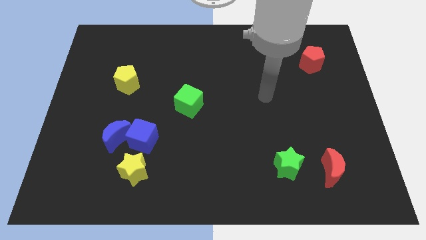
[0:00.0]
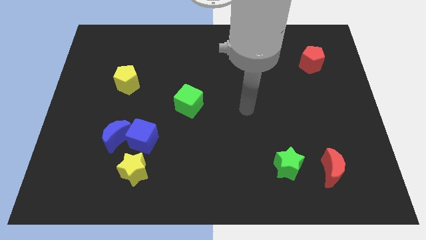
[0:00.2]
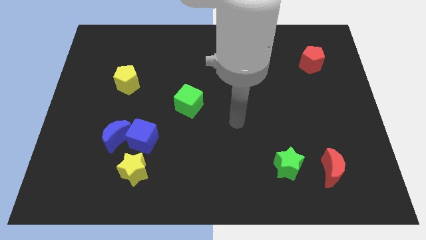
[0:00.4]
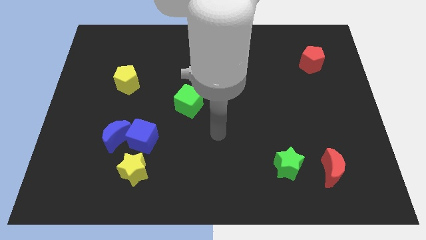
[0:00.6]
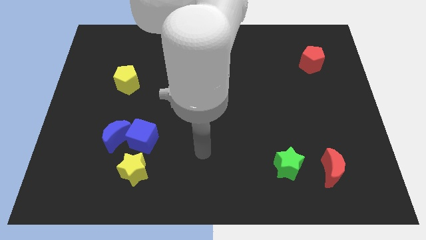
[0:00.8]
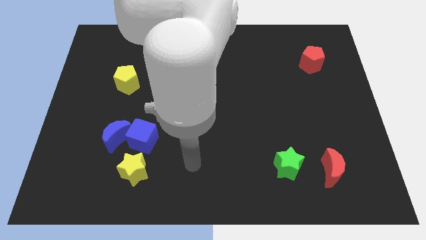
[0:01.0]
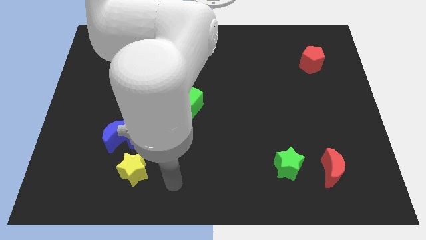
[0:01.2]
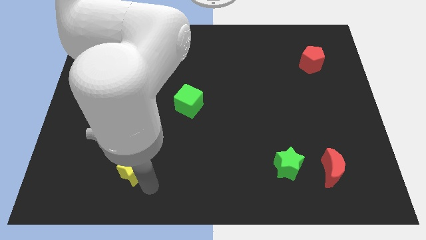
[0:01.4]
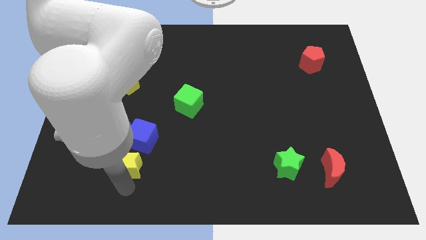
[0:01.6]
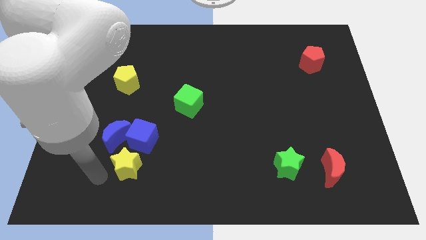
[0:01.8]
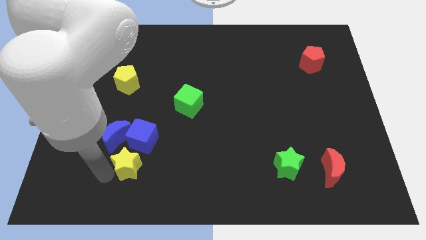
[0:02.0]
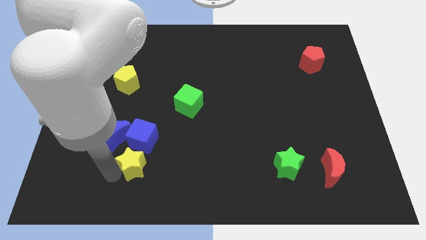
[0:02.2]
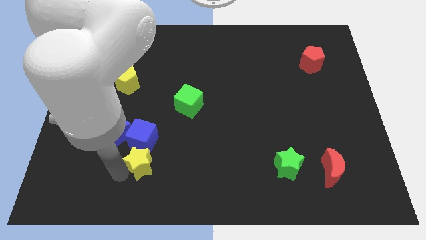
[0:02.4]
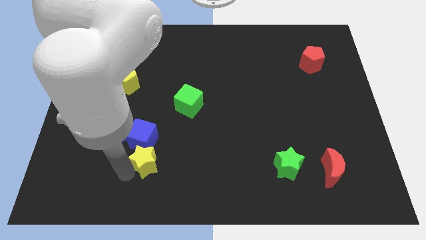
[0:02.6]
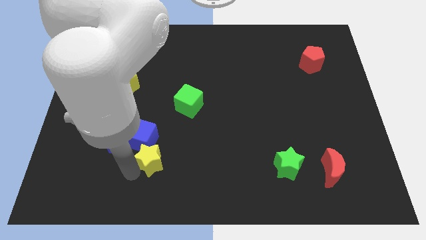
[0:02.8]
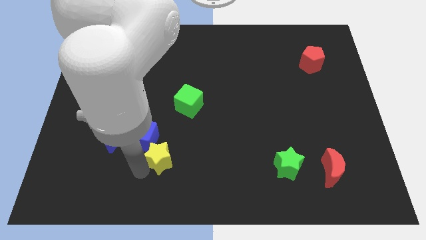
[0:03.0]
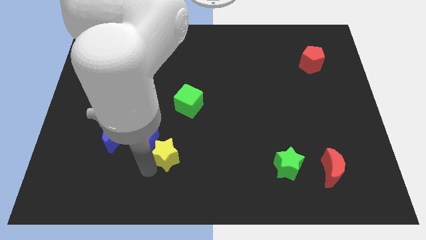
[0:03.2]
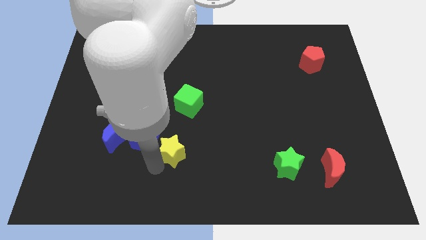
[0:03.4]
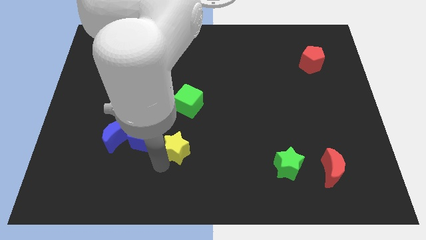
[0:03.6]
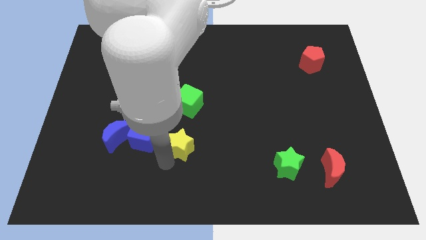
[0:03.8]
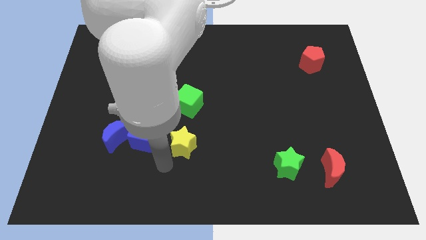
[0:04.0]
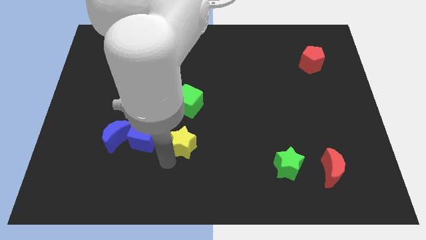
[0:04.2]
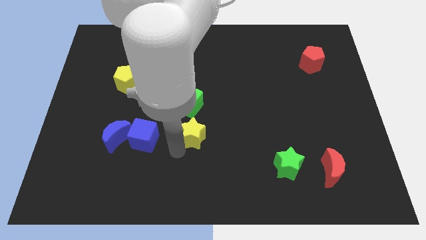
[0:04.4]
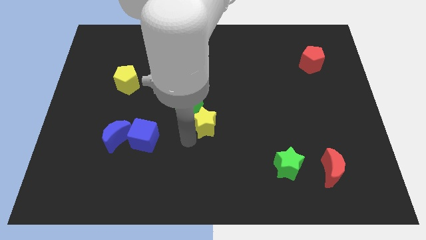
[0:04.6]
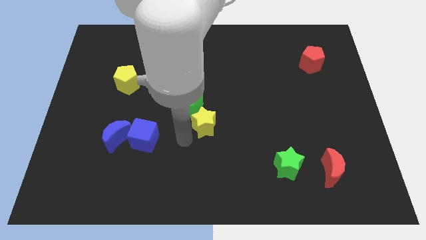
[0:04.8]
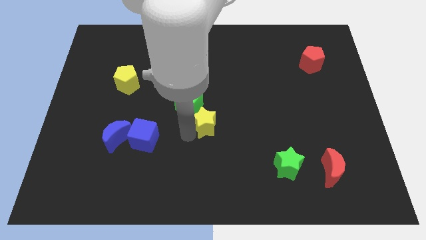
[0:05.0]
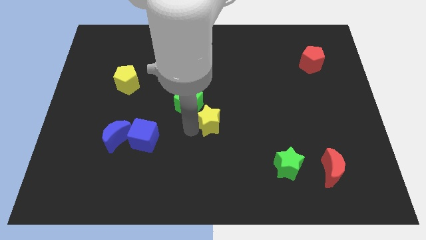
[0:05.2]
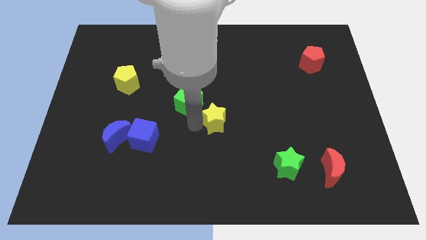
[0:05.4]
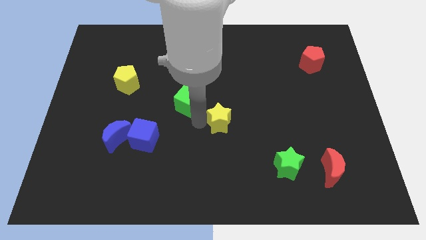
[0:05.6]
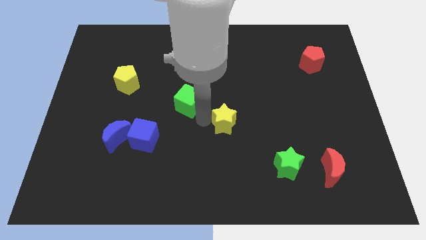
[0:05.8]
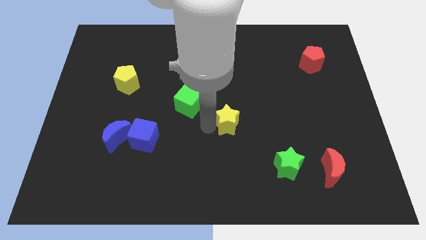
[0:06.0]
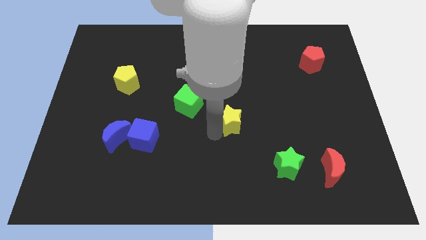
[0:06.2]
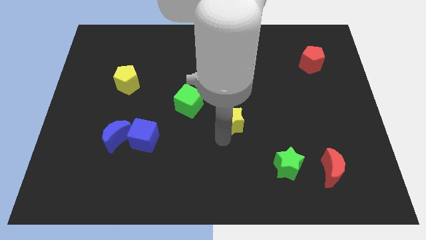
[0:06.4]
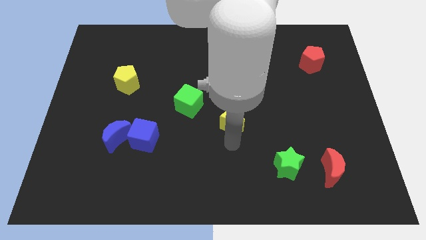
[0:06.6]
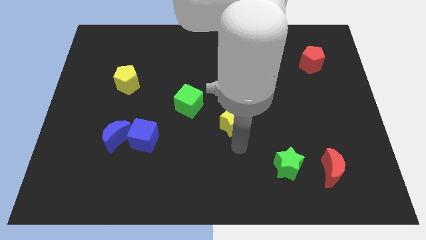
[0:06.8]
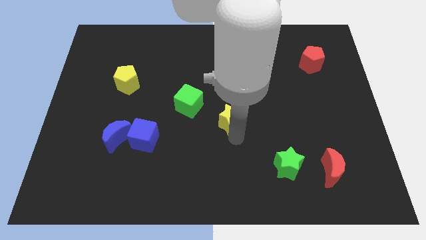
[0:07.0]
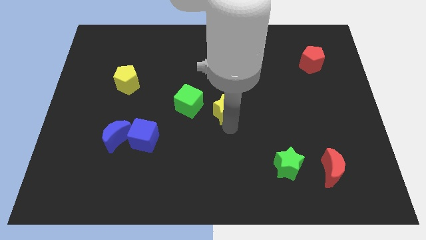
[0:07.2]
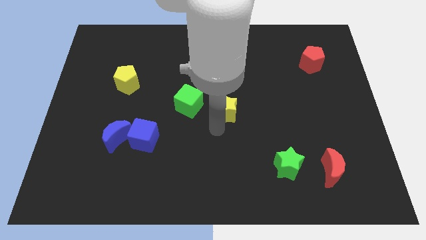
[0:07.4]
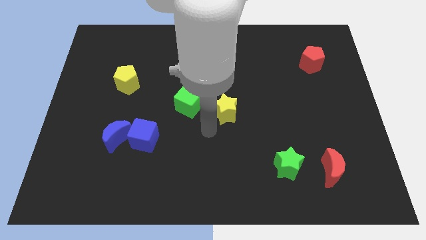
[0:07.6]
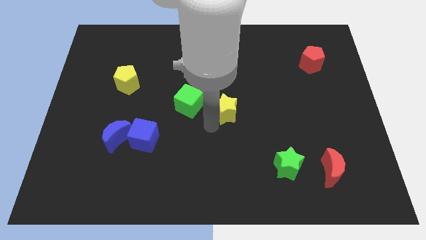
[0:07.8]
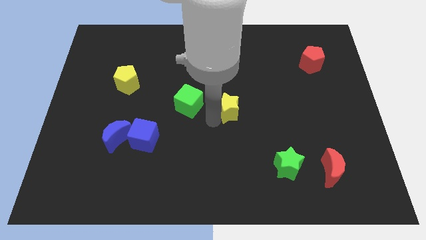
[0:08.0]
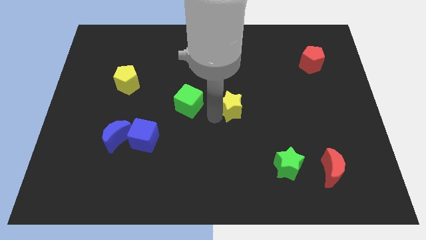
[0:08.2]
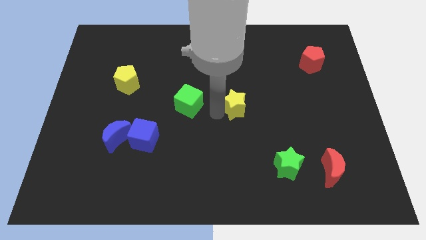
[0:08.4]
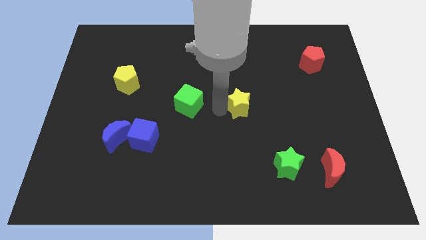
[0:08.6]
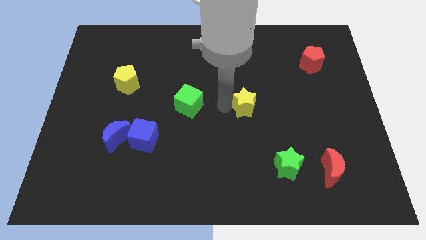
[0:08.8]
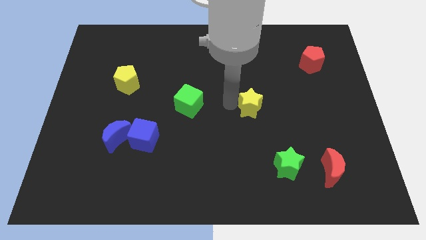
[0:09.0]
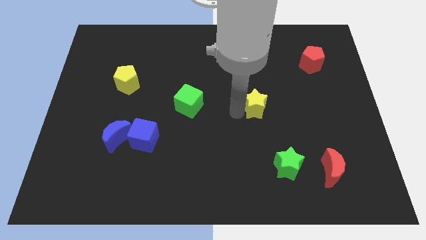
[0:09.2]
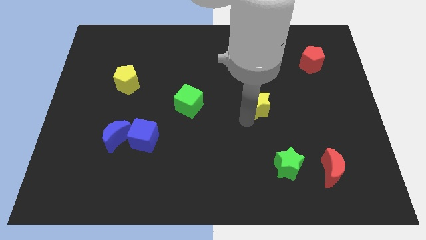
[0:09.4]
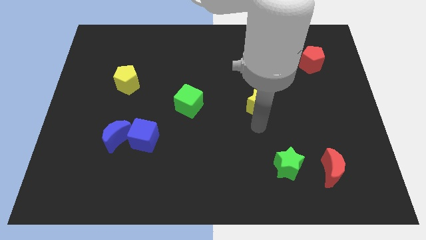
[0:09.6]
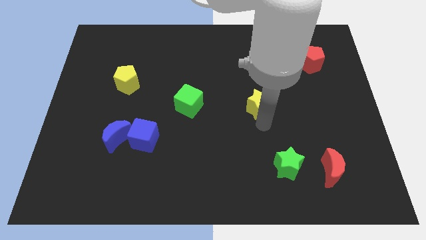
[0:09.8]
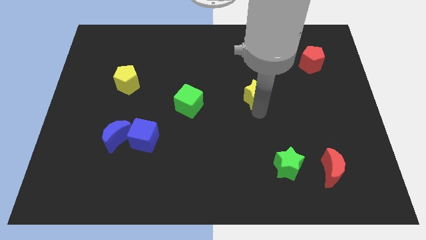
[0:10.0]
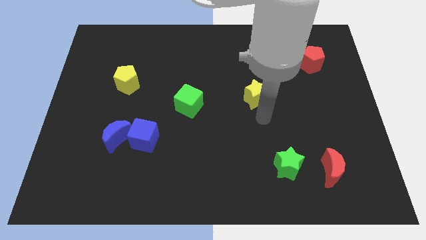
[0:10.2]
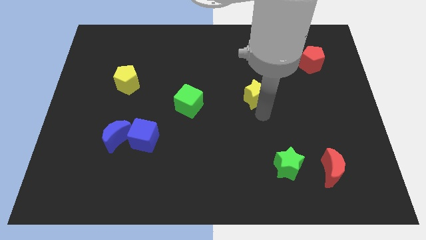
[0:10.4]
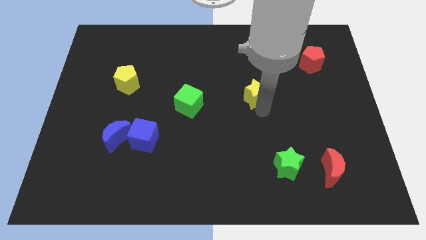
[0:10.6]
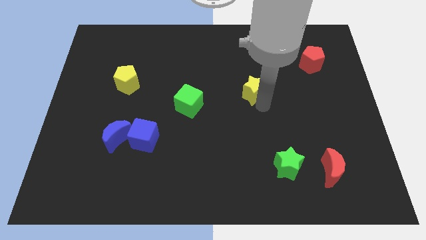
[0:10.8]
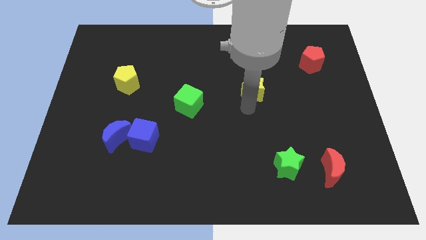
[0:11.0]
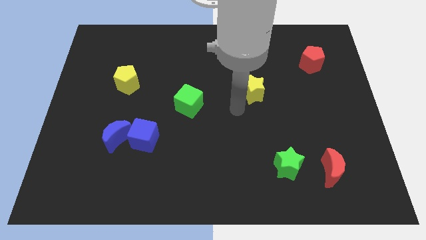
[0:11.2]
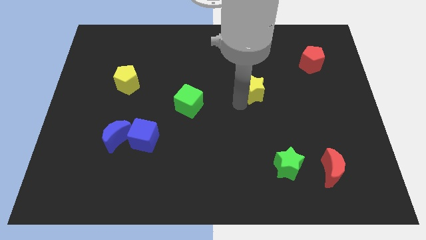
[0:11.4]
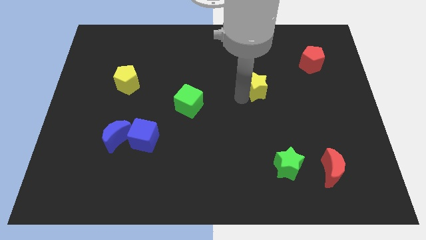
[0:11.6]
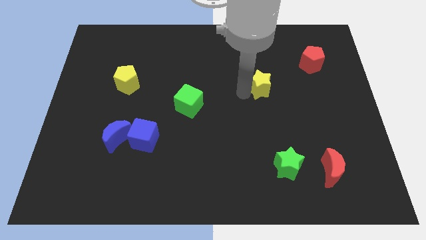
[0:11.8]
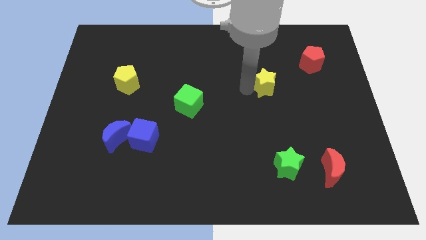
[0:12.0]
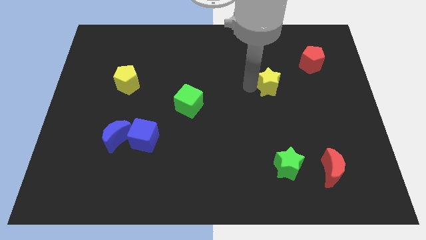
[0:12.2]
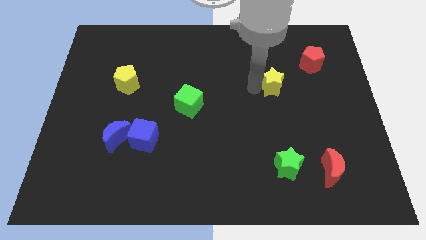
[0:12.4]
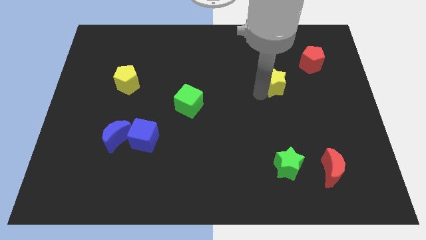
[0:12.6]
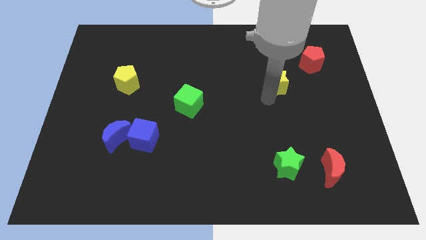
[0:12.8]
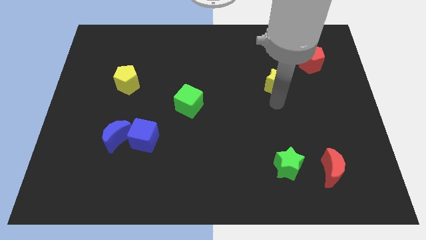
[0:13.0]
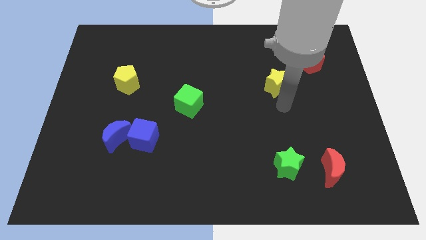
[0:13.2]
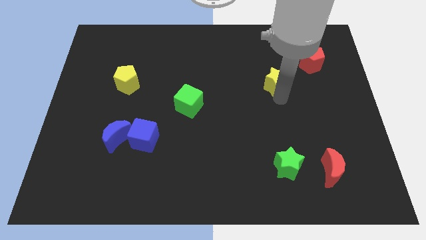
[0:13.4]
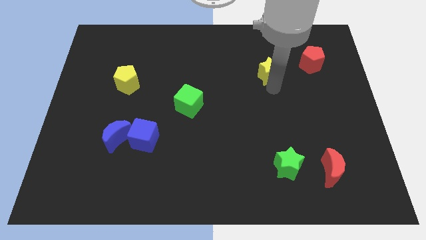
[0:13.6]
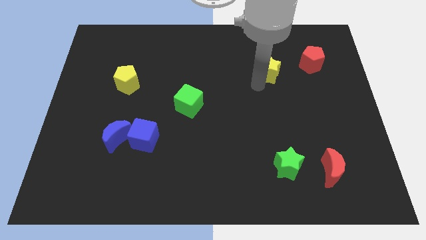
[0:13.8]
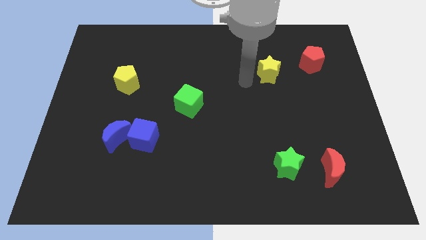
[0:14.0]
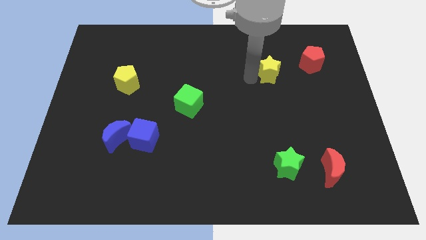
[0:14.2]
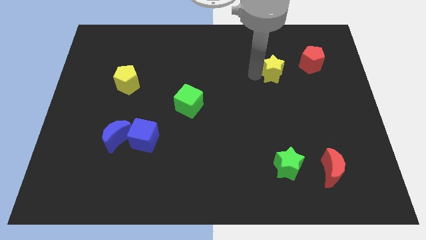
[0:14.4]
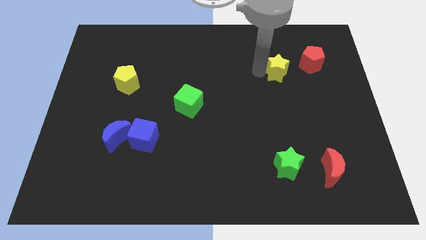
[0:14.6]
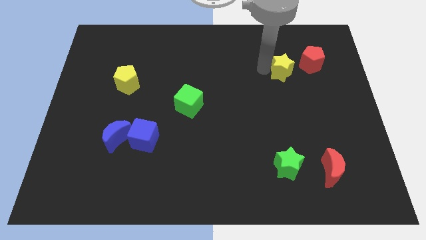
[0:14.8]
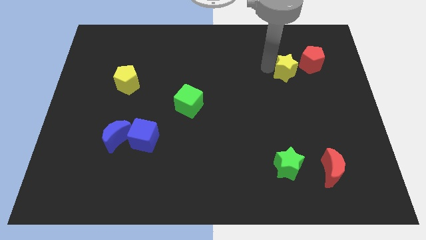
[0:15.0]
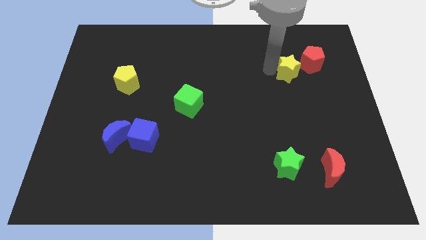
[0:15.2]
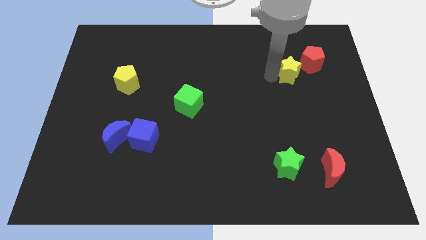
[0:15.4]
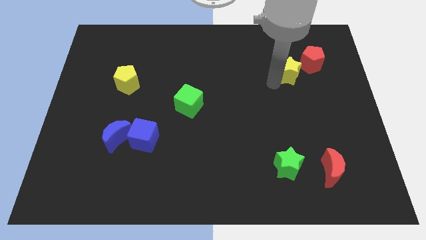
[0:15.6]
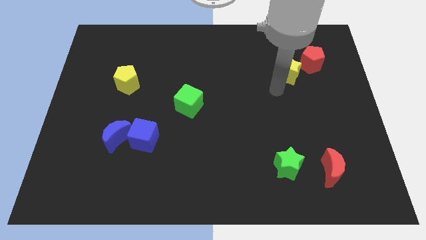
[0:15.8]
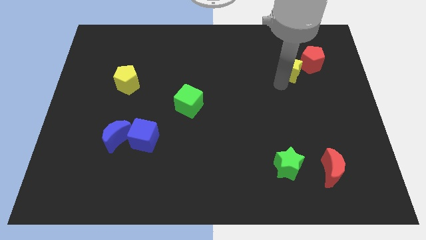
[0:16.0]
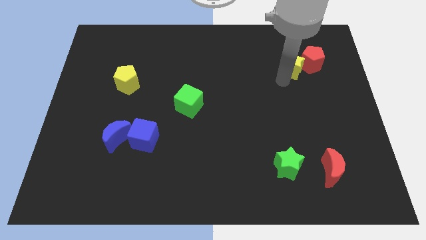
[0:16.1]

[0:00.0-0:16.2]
move the yellow star to the red pentagon
